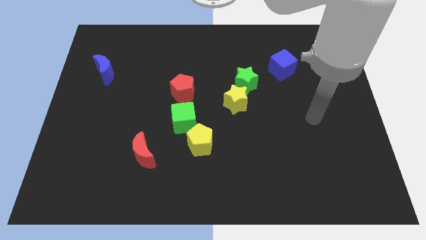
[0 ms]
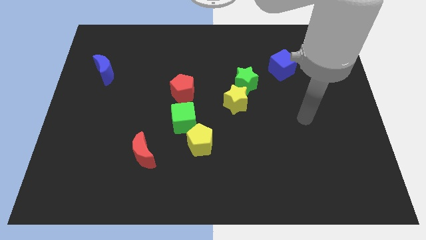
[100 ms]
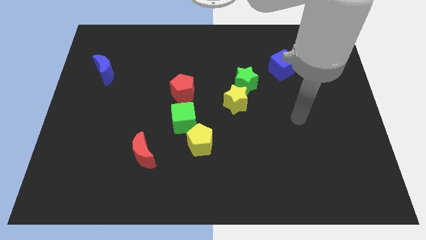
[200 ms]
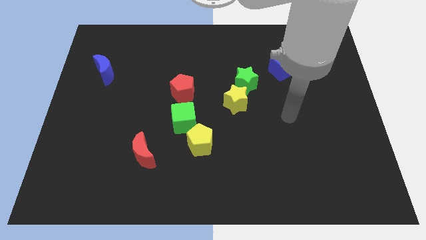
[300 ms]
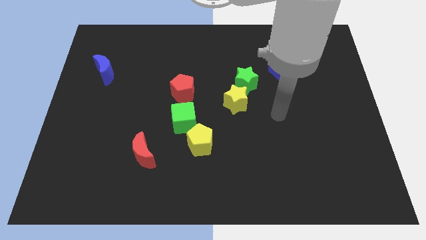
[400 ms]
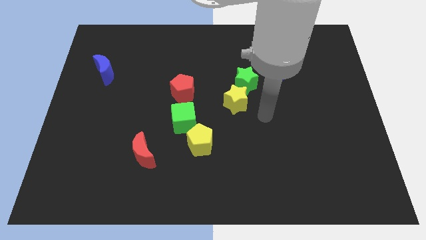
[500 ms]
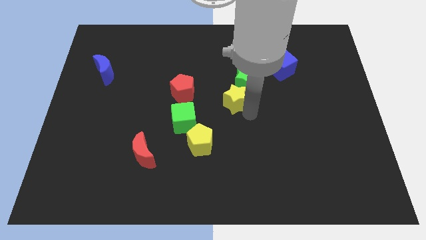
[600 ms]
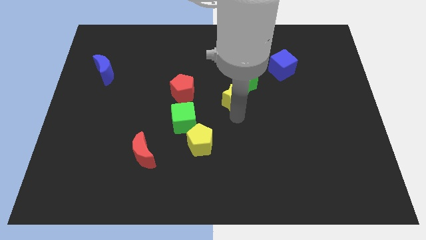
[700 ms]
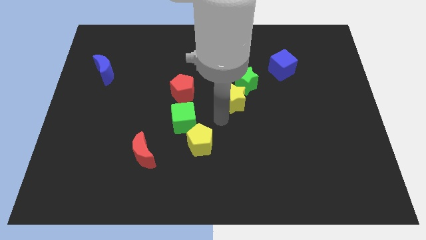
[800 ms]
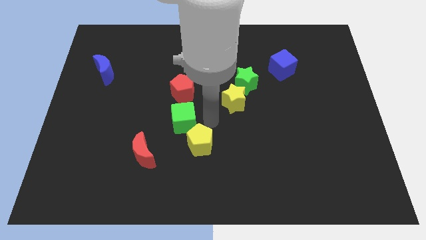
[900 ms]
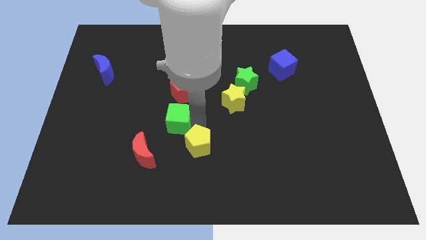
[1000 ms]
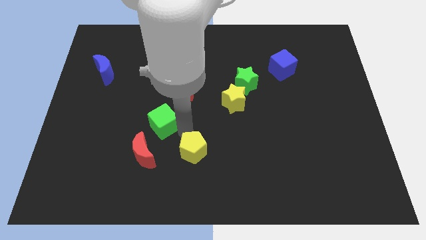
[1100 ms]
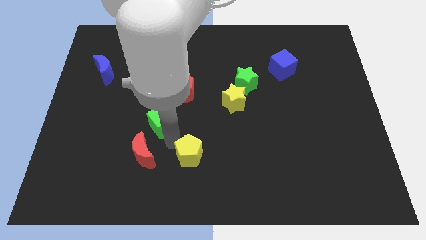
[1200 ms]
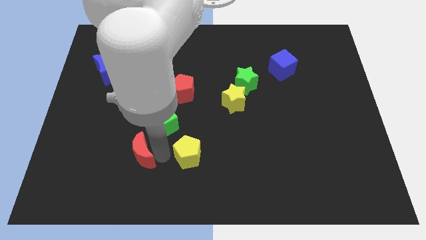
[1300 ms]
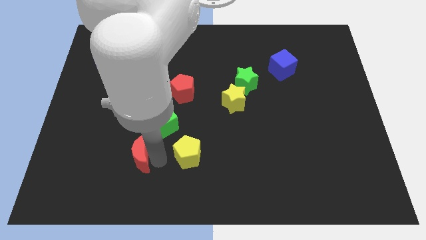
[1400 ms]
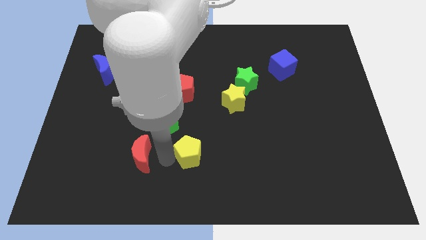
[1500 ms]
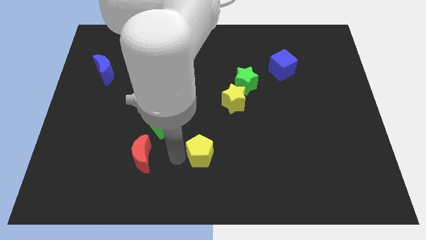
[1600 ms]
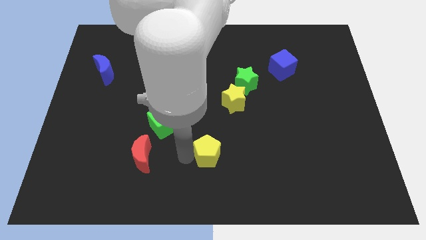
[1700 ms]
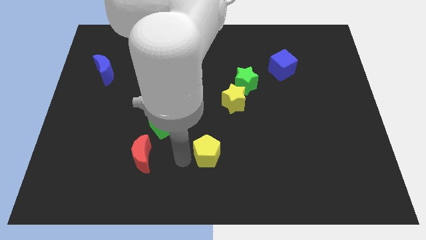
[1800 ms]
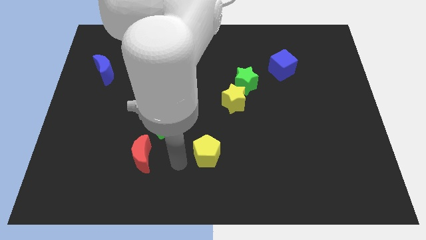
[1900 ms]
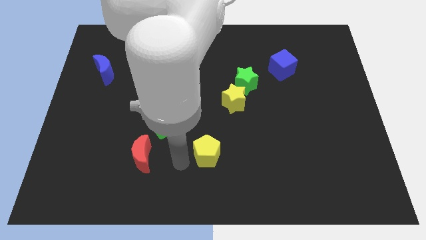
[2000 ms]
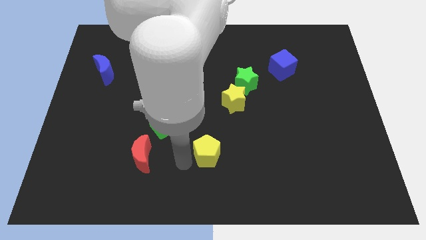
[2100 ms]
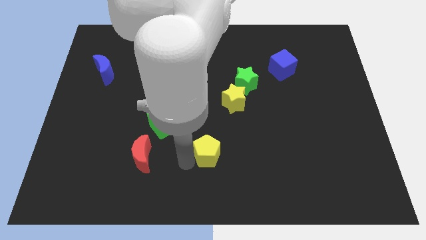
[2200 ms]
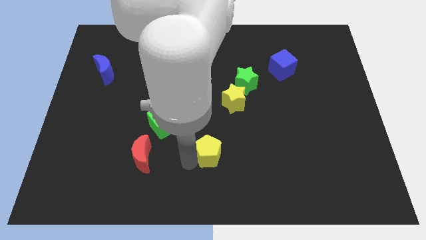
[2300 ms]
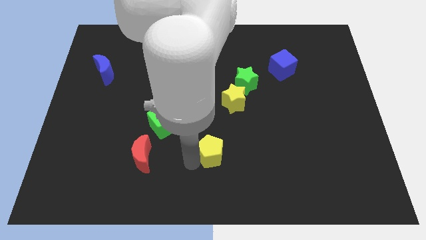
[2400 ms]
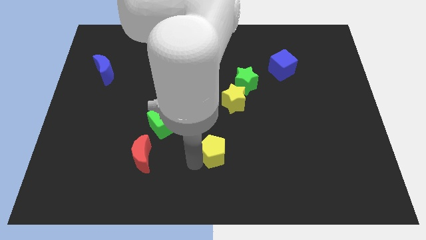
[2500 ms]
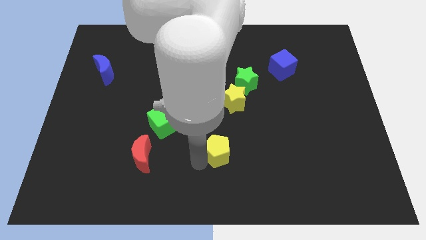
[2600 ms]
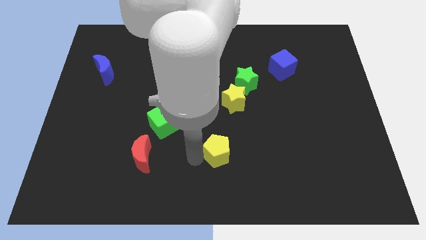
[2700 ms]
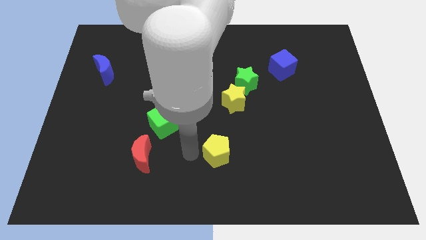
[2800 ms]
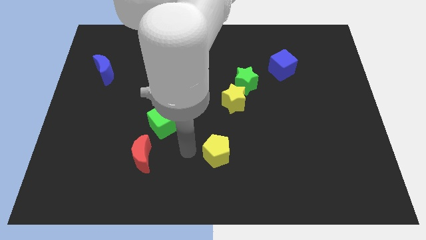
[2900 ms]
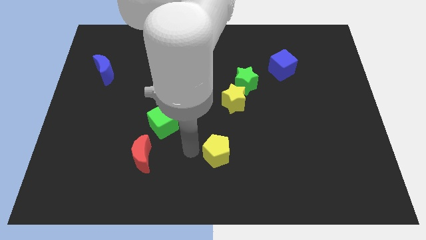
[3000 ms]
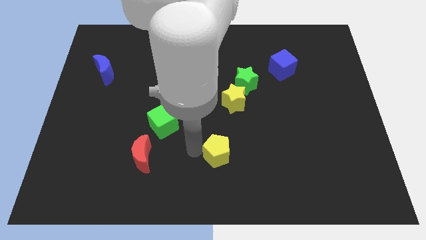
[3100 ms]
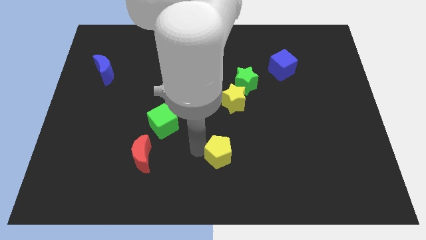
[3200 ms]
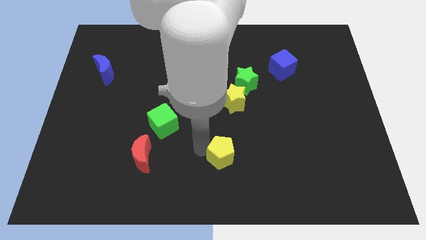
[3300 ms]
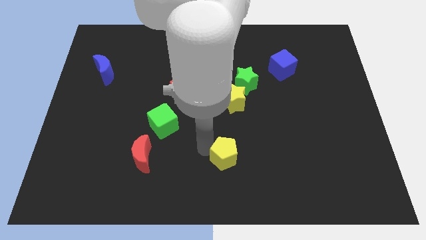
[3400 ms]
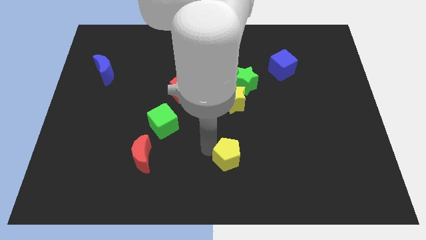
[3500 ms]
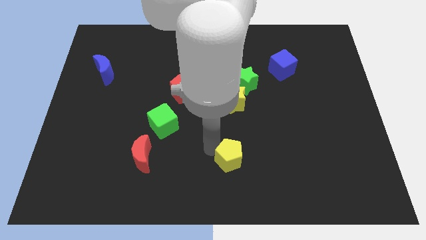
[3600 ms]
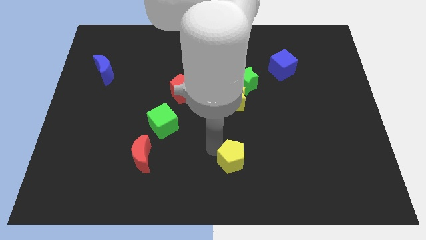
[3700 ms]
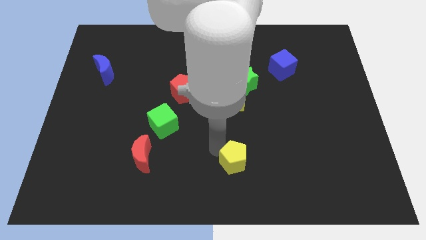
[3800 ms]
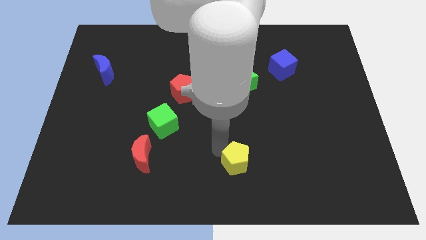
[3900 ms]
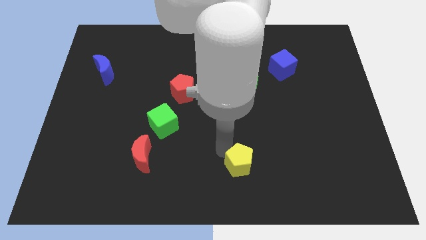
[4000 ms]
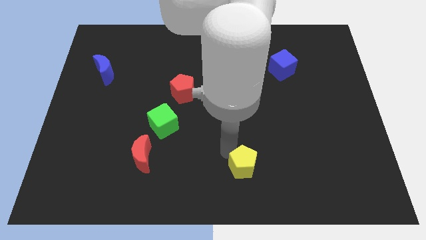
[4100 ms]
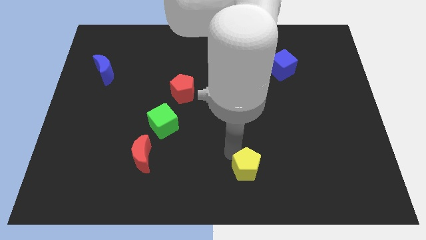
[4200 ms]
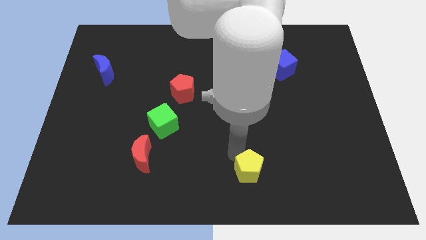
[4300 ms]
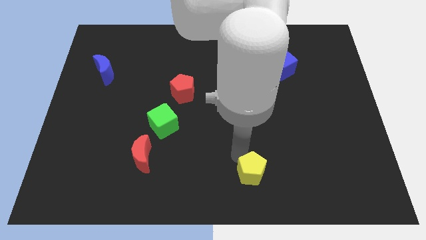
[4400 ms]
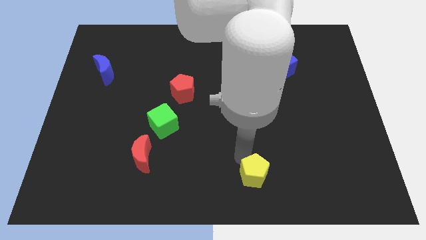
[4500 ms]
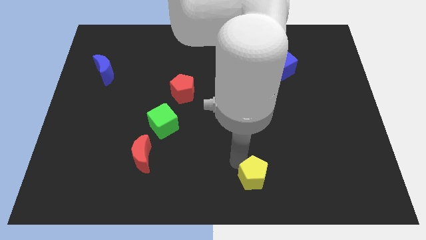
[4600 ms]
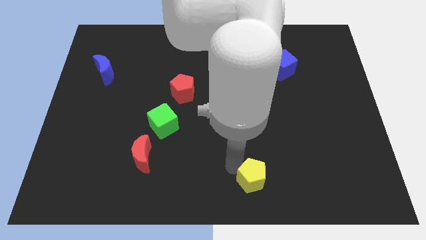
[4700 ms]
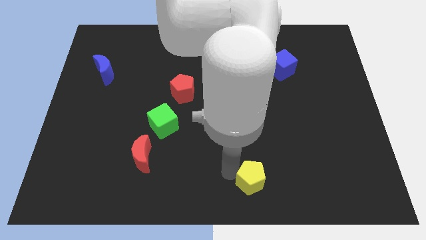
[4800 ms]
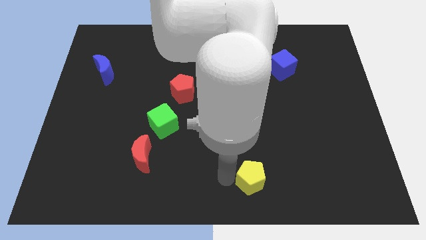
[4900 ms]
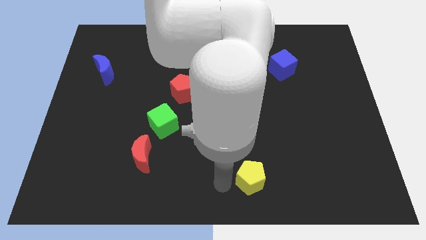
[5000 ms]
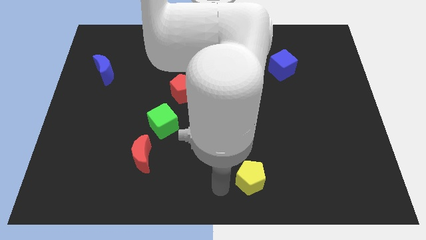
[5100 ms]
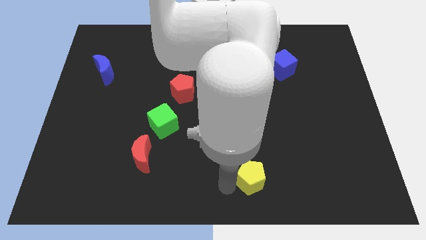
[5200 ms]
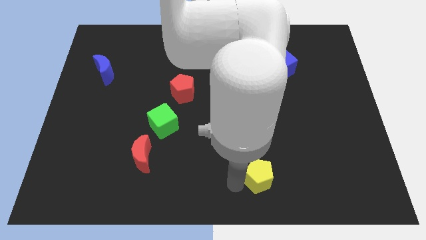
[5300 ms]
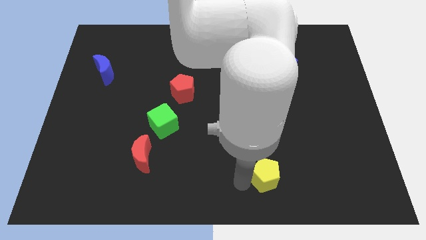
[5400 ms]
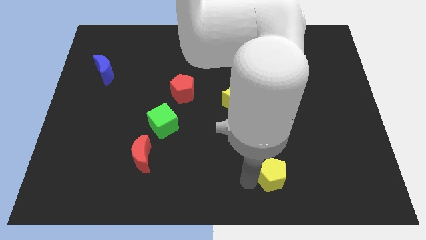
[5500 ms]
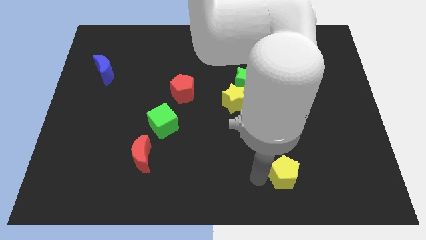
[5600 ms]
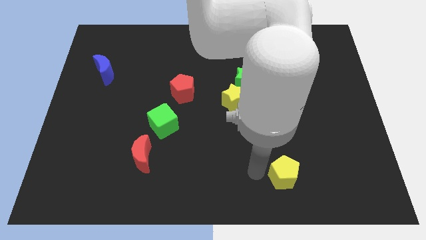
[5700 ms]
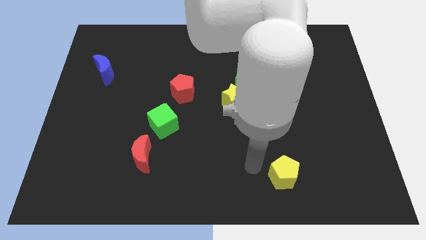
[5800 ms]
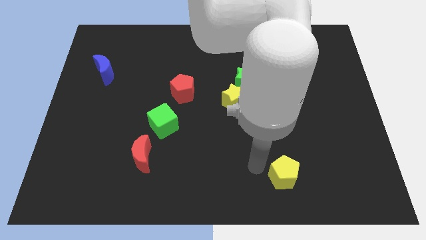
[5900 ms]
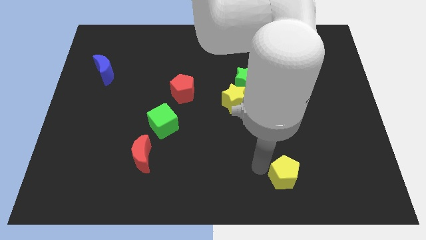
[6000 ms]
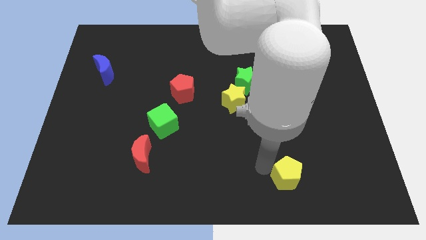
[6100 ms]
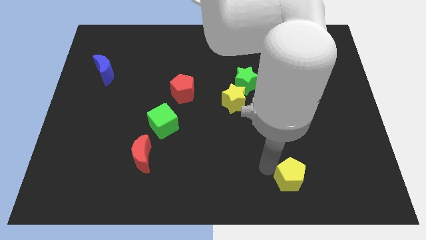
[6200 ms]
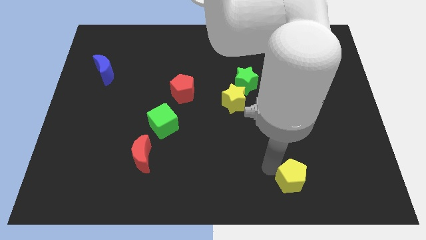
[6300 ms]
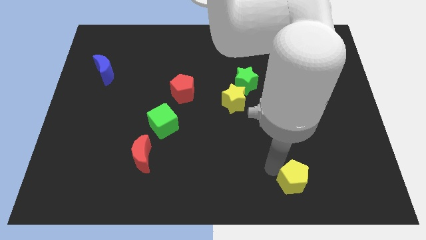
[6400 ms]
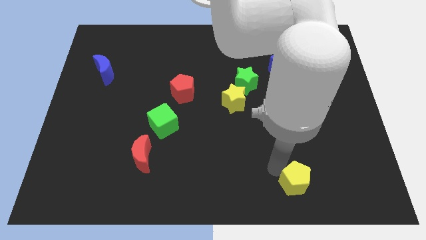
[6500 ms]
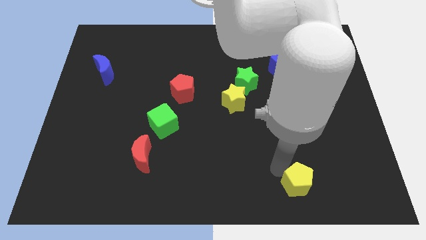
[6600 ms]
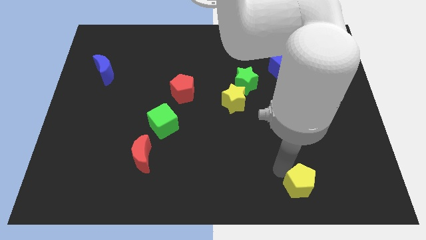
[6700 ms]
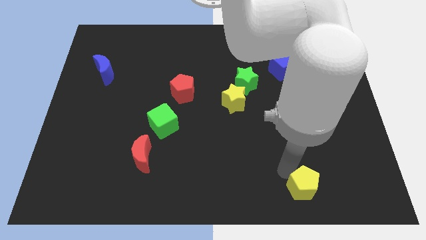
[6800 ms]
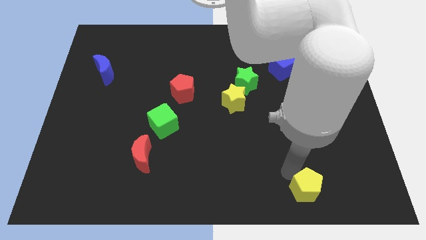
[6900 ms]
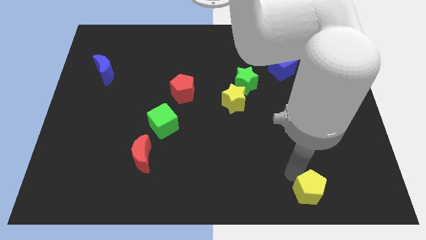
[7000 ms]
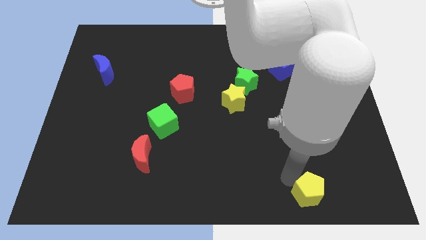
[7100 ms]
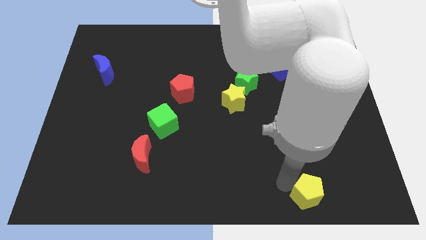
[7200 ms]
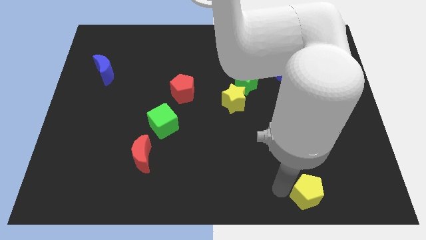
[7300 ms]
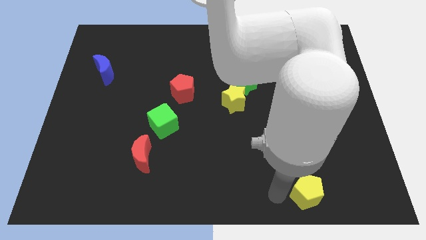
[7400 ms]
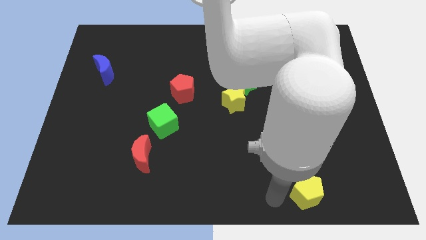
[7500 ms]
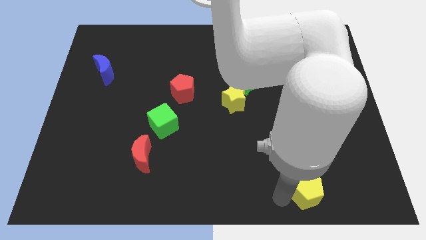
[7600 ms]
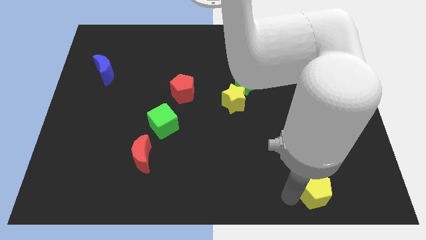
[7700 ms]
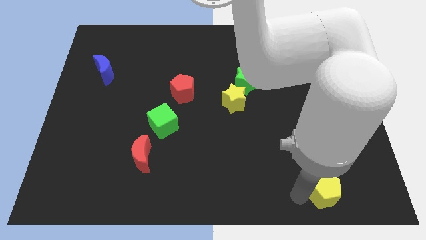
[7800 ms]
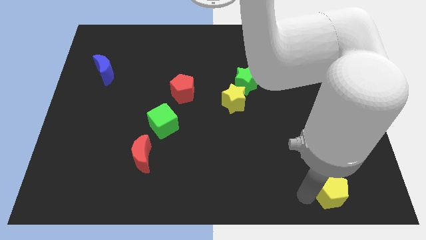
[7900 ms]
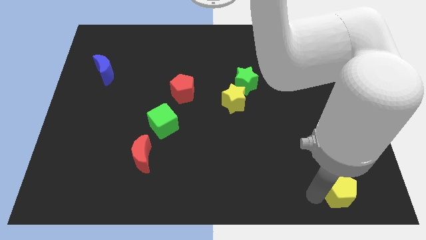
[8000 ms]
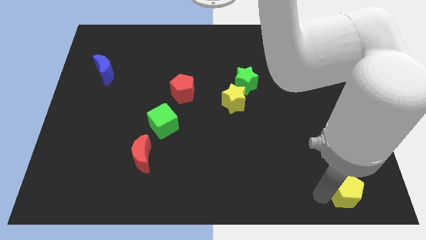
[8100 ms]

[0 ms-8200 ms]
slide the yellow pentagon to the bottom right of the board
